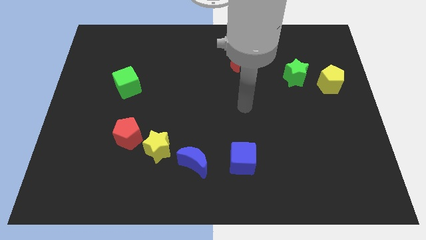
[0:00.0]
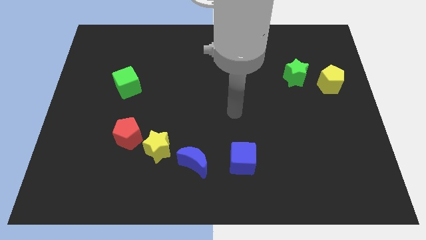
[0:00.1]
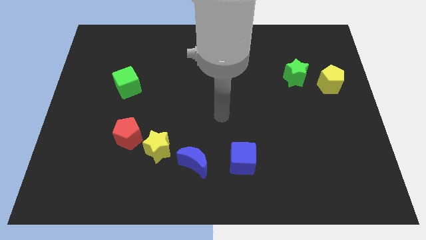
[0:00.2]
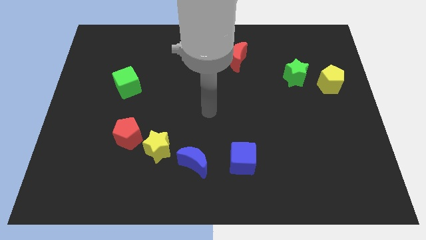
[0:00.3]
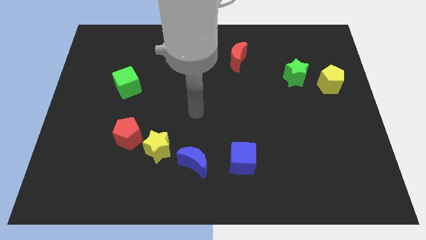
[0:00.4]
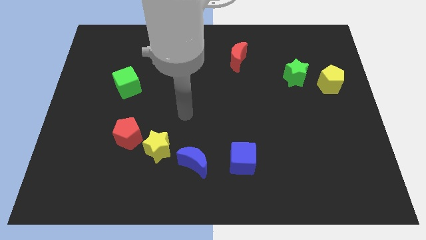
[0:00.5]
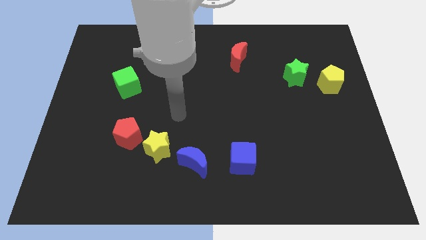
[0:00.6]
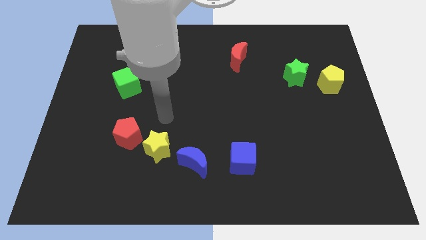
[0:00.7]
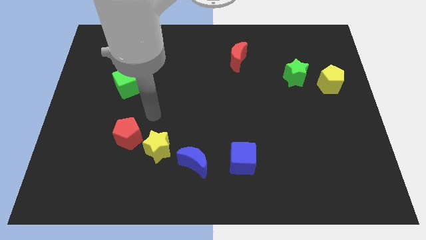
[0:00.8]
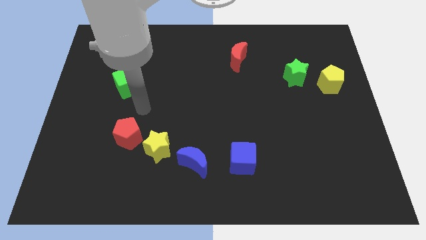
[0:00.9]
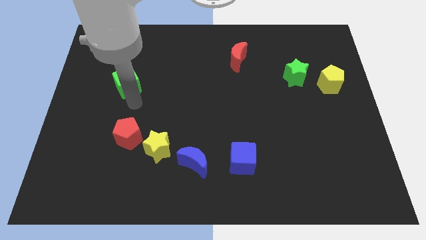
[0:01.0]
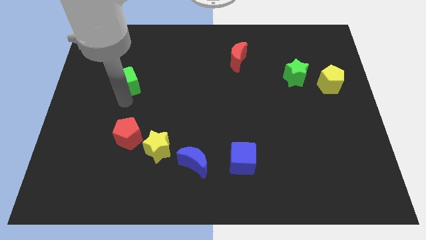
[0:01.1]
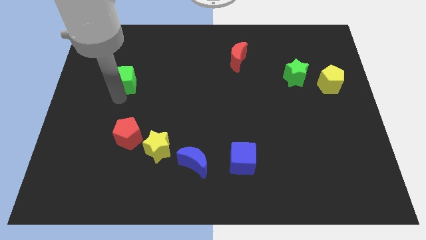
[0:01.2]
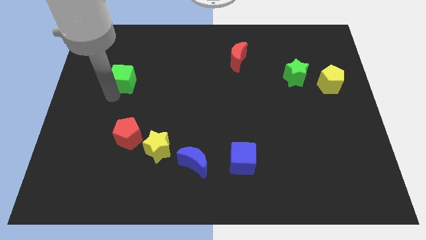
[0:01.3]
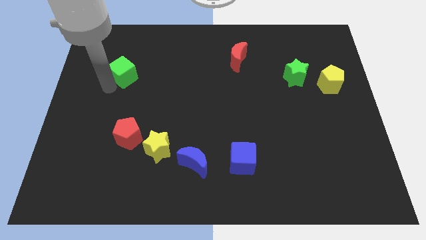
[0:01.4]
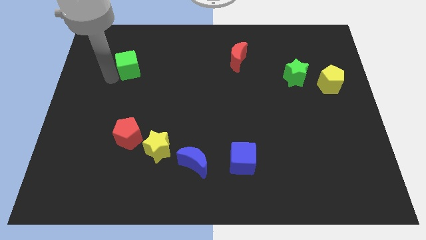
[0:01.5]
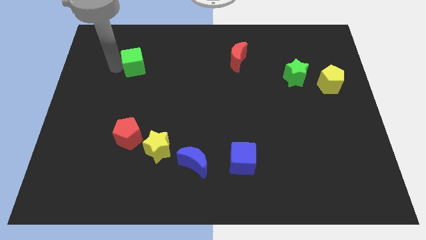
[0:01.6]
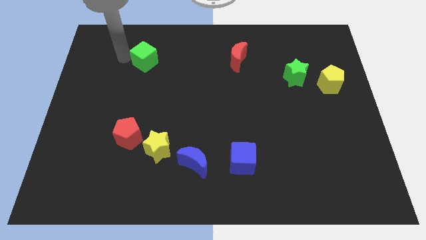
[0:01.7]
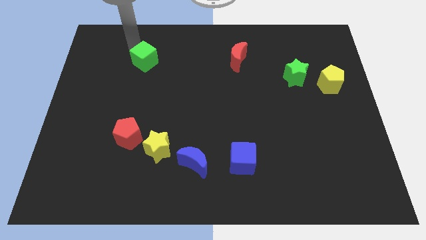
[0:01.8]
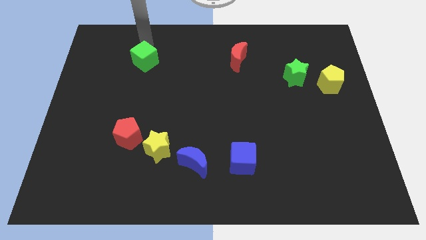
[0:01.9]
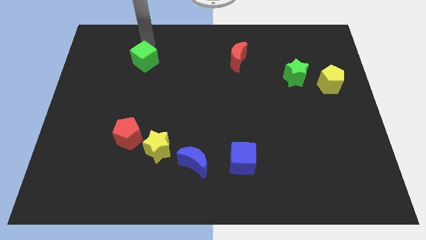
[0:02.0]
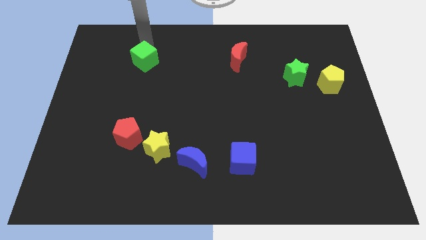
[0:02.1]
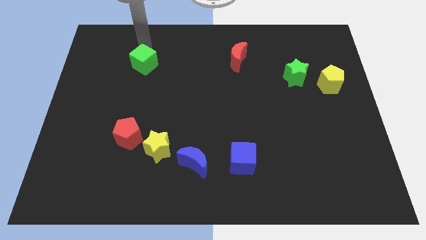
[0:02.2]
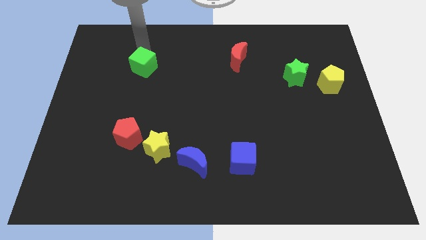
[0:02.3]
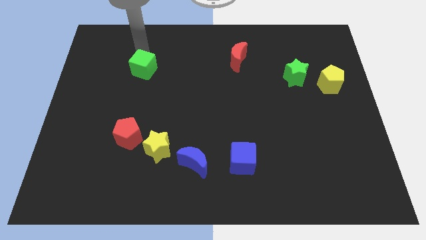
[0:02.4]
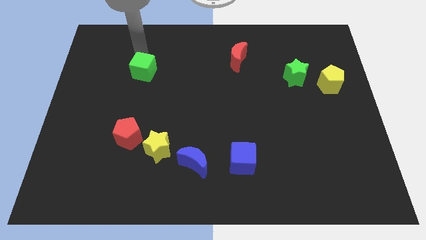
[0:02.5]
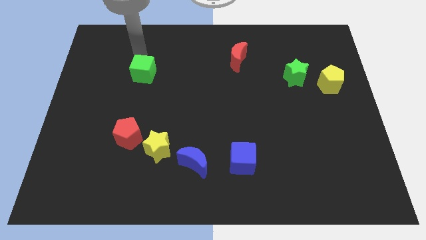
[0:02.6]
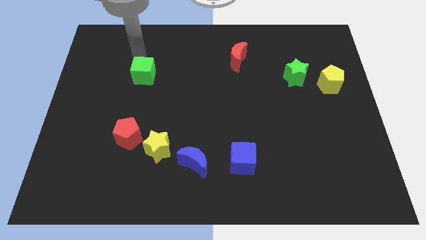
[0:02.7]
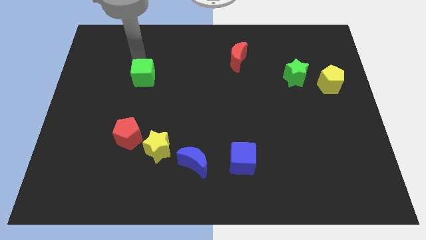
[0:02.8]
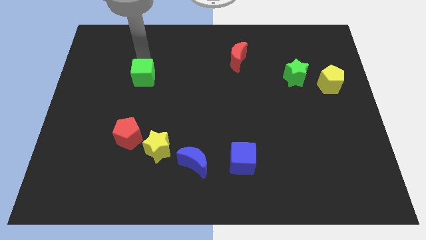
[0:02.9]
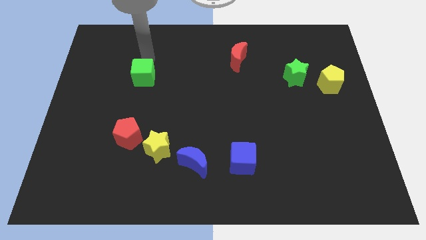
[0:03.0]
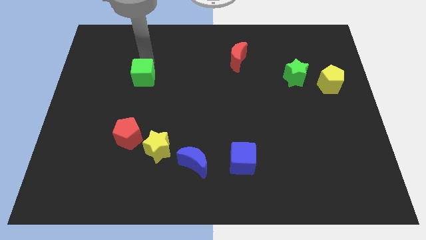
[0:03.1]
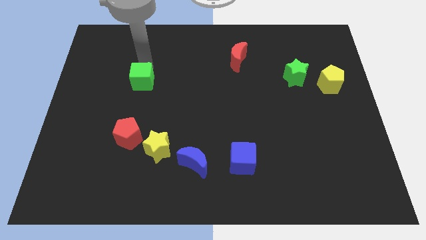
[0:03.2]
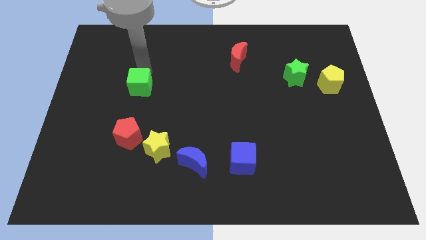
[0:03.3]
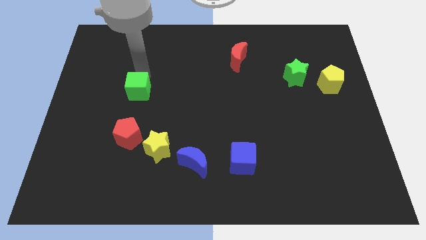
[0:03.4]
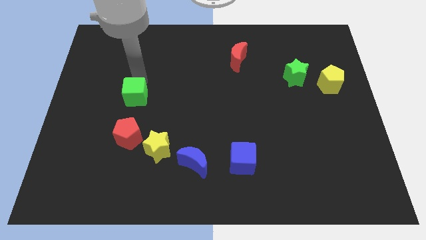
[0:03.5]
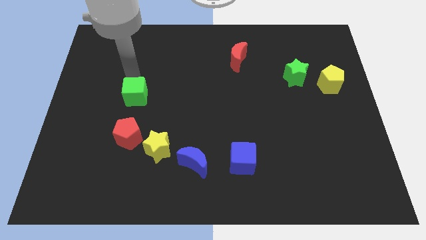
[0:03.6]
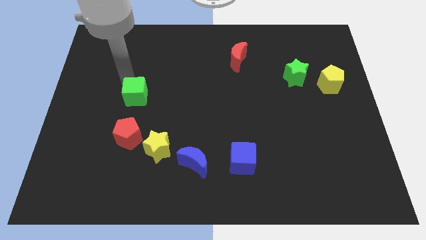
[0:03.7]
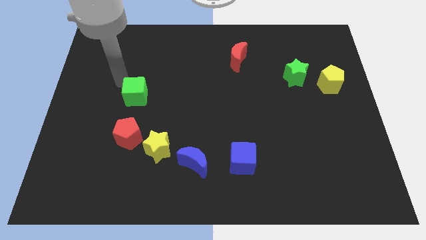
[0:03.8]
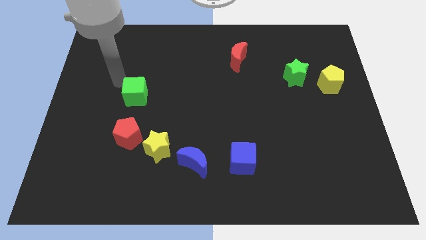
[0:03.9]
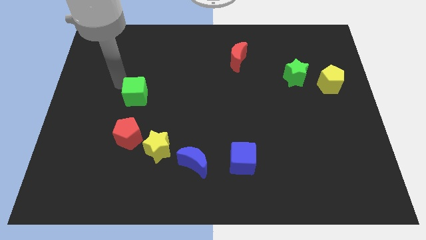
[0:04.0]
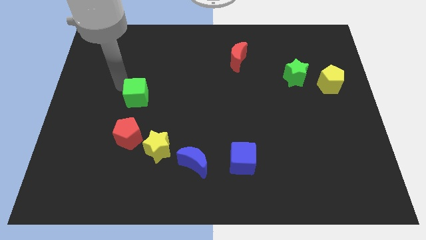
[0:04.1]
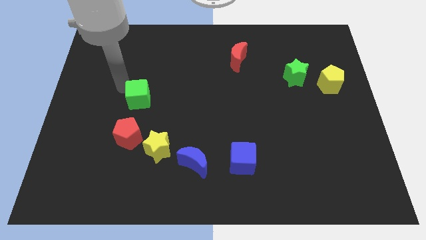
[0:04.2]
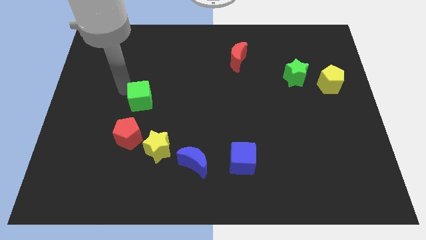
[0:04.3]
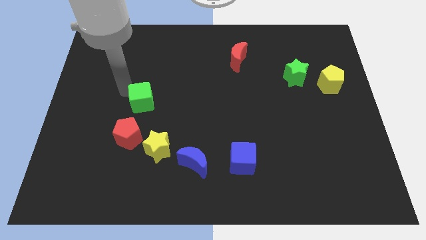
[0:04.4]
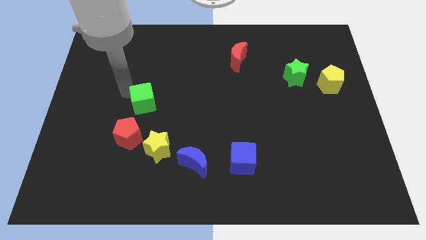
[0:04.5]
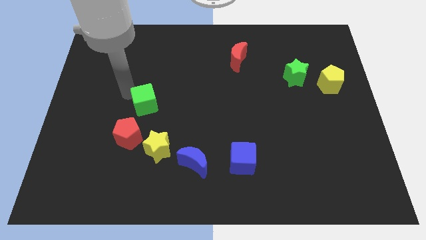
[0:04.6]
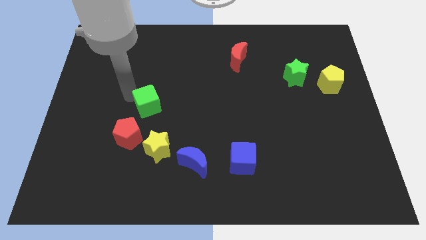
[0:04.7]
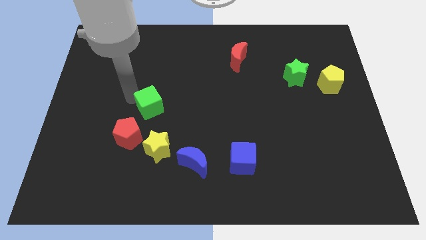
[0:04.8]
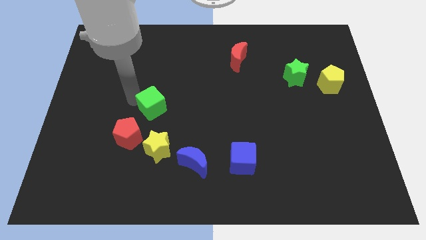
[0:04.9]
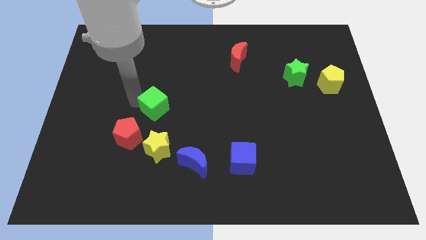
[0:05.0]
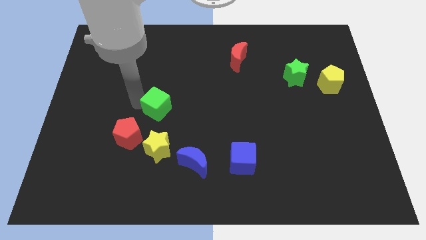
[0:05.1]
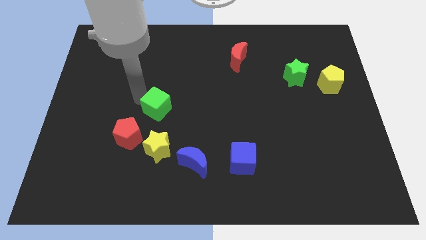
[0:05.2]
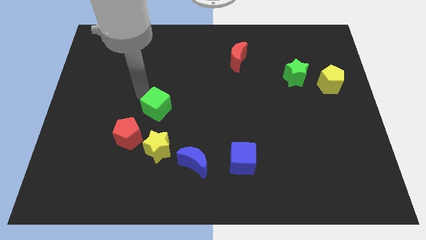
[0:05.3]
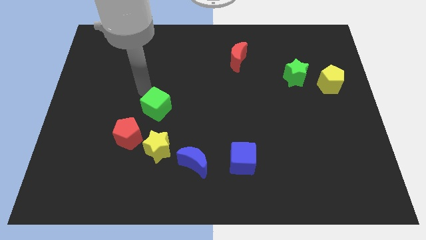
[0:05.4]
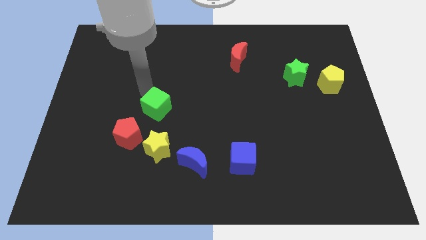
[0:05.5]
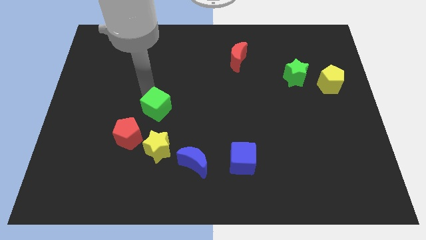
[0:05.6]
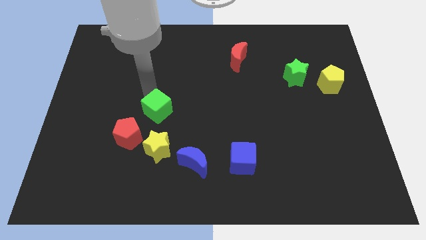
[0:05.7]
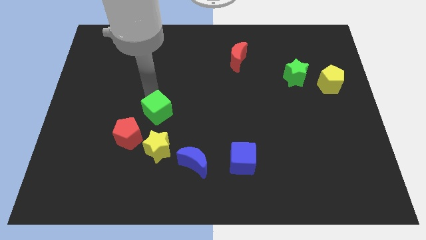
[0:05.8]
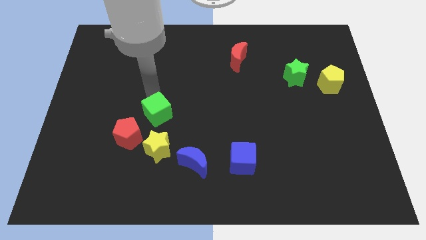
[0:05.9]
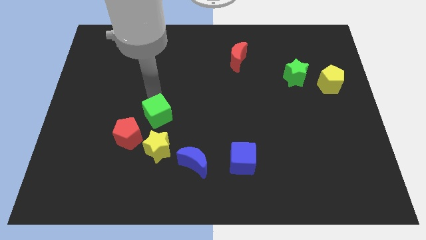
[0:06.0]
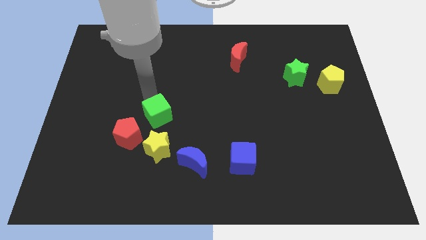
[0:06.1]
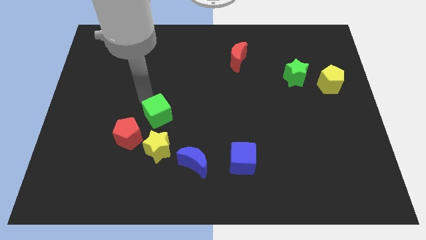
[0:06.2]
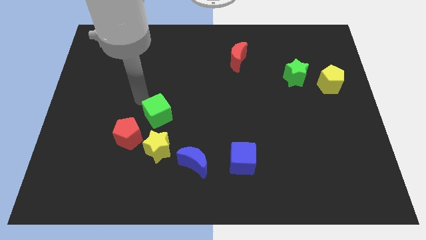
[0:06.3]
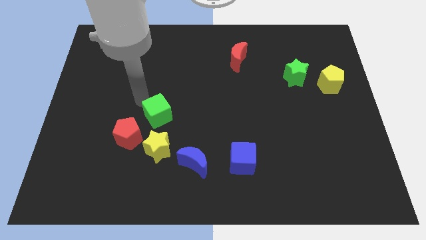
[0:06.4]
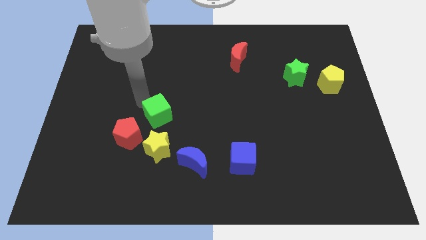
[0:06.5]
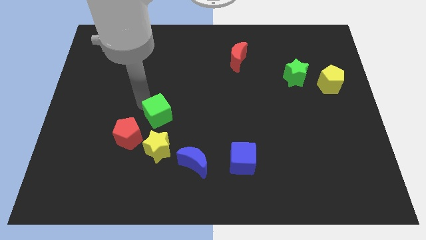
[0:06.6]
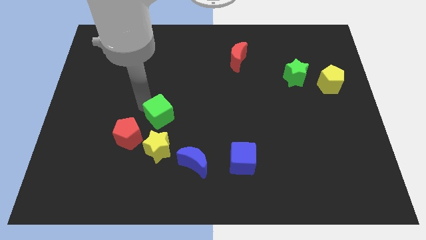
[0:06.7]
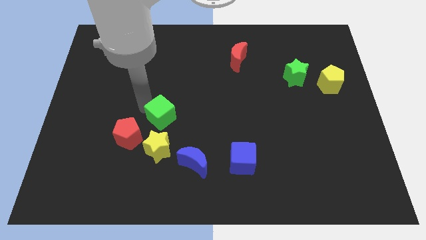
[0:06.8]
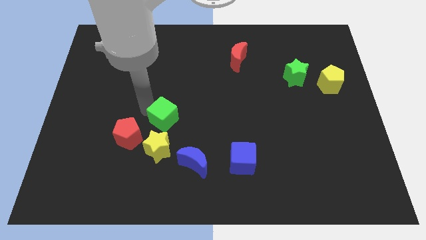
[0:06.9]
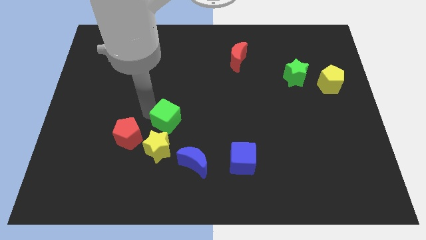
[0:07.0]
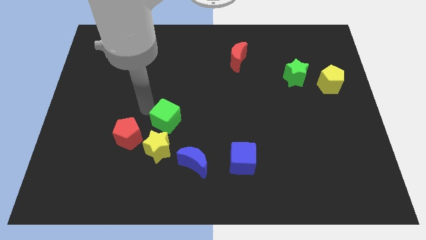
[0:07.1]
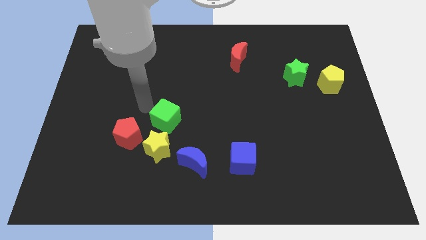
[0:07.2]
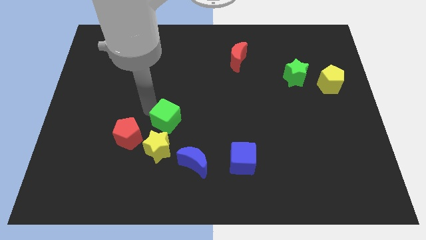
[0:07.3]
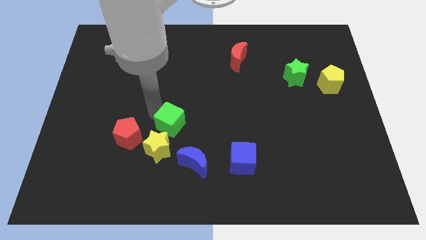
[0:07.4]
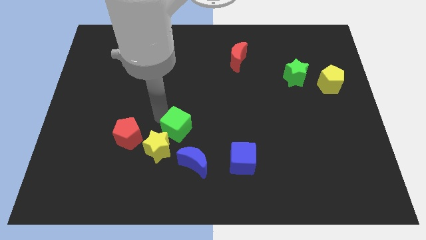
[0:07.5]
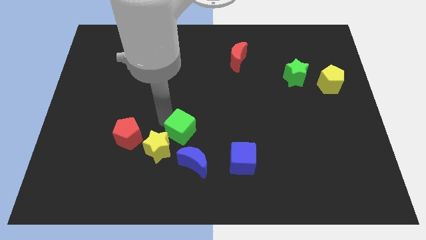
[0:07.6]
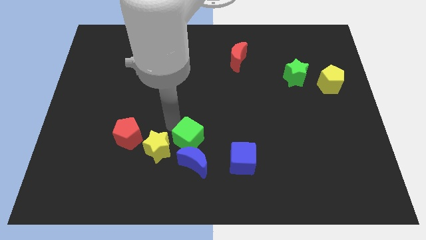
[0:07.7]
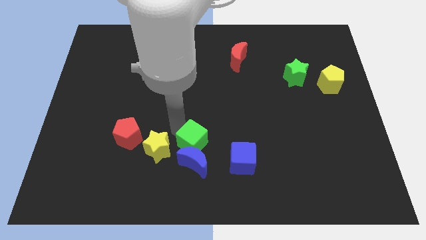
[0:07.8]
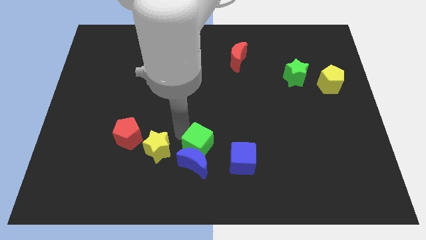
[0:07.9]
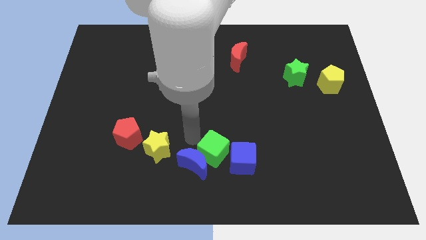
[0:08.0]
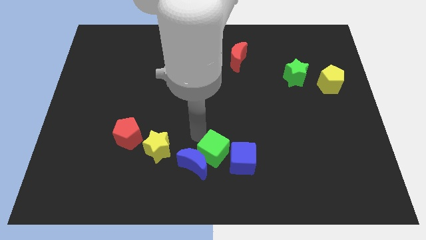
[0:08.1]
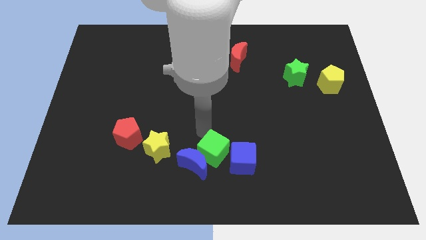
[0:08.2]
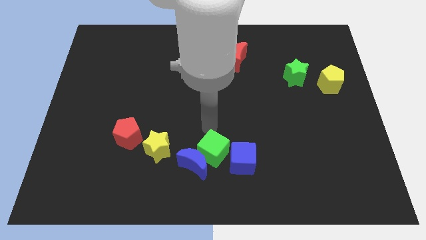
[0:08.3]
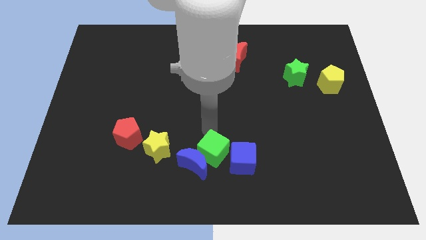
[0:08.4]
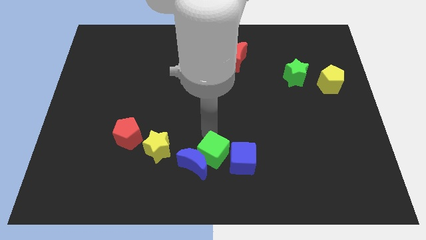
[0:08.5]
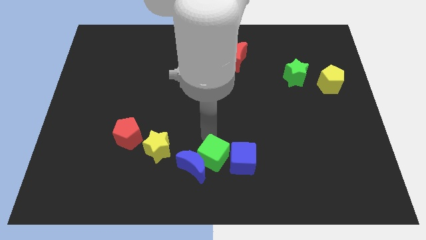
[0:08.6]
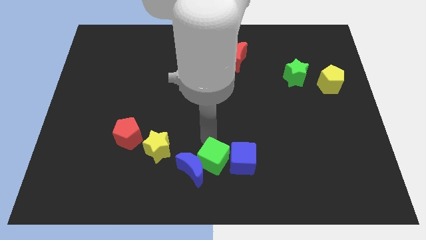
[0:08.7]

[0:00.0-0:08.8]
push the green cube to the bottom left of the blue cube
